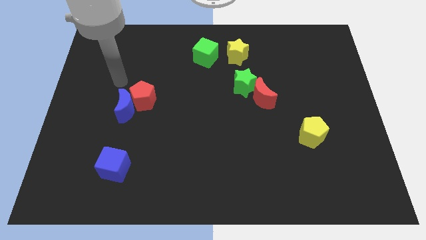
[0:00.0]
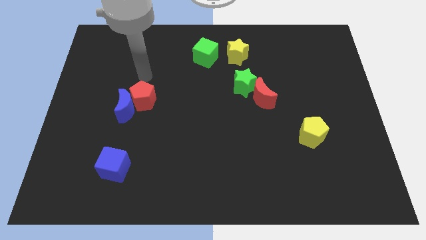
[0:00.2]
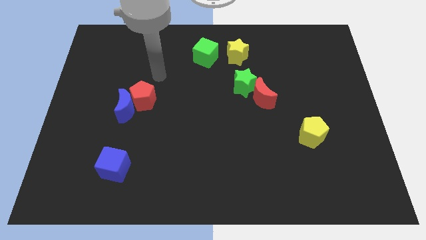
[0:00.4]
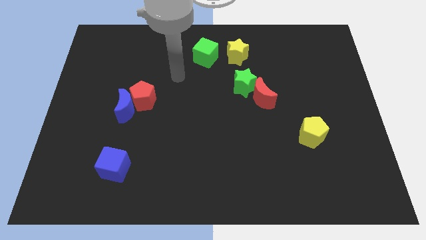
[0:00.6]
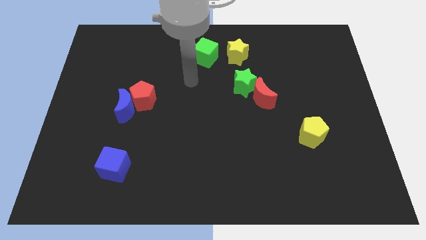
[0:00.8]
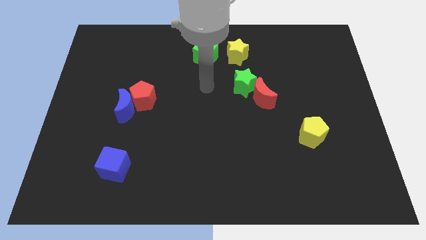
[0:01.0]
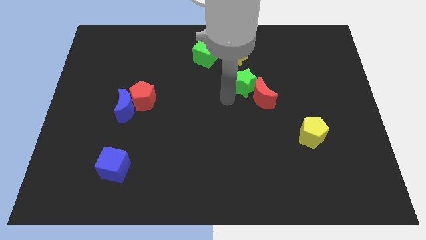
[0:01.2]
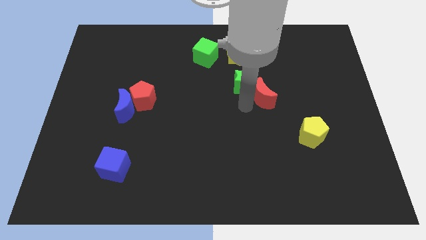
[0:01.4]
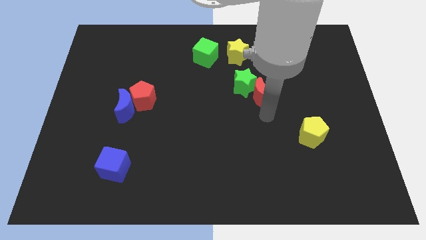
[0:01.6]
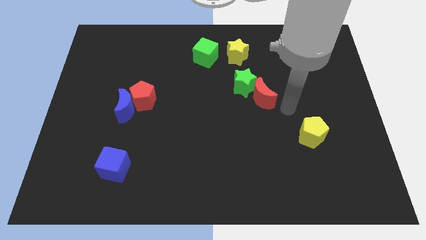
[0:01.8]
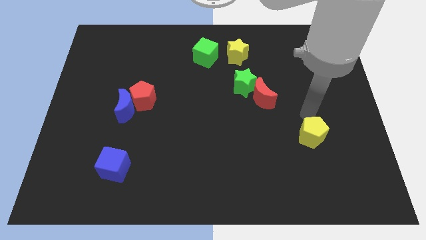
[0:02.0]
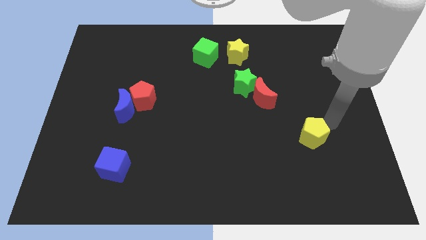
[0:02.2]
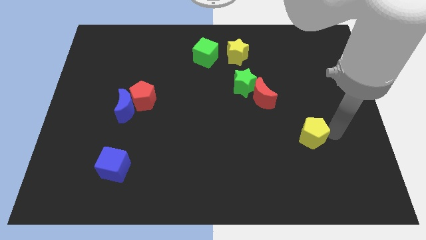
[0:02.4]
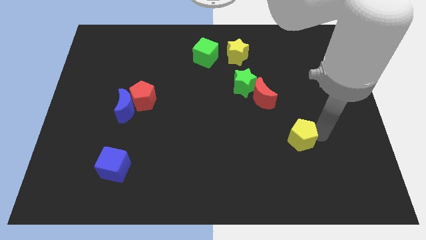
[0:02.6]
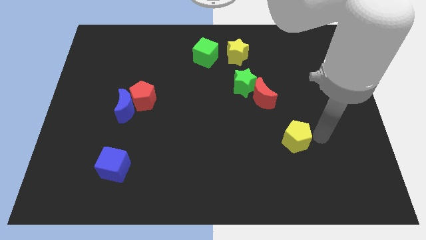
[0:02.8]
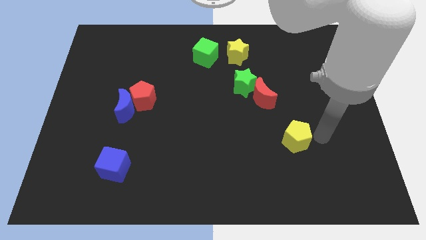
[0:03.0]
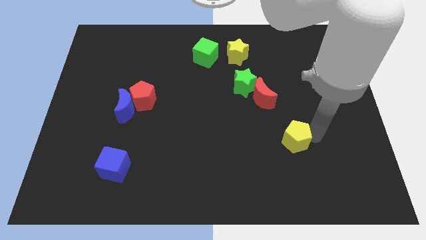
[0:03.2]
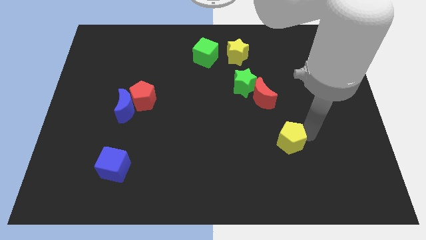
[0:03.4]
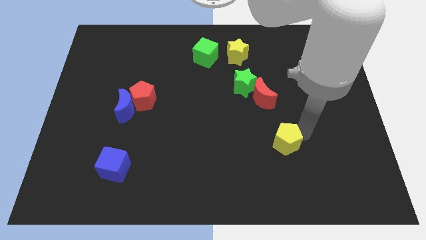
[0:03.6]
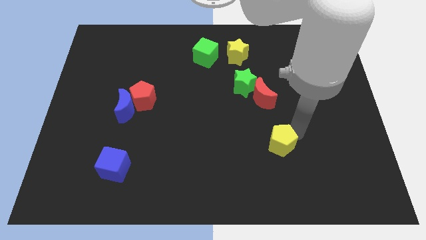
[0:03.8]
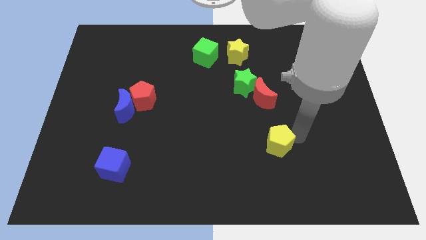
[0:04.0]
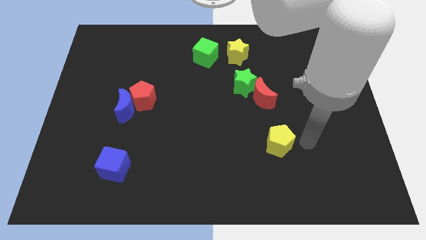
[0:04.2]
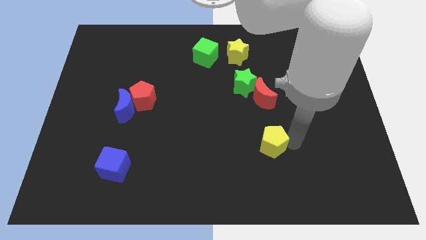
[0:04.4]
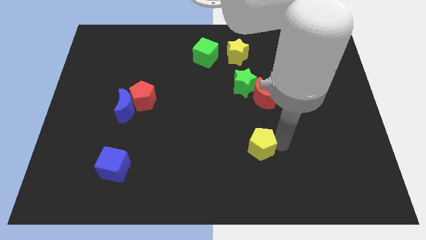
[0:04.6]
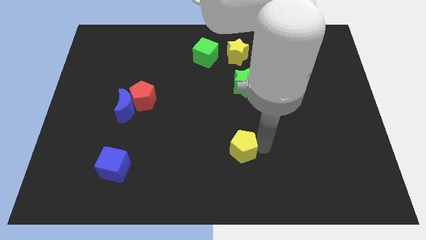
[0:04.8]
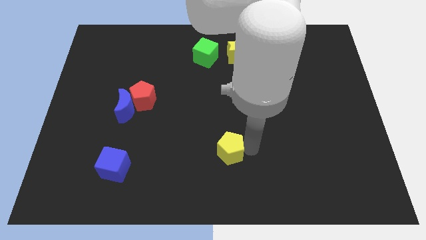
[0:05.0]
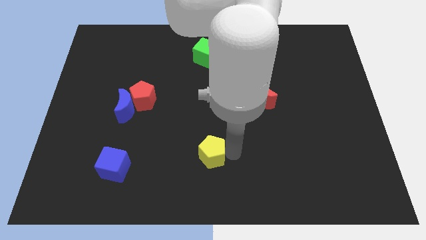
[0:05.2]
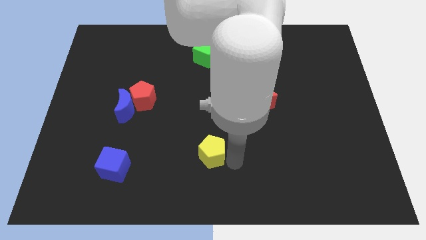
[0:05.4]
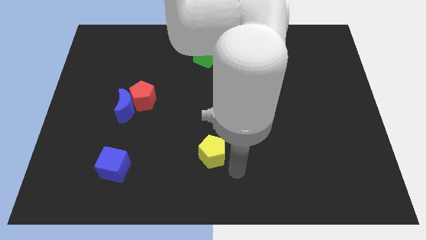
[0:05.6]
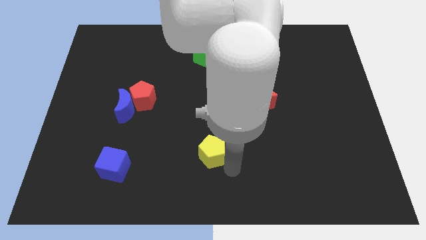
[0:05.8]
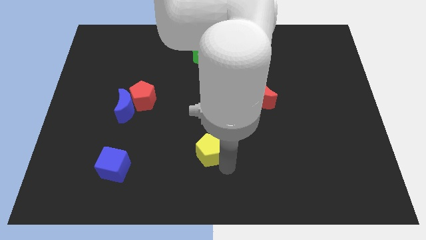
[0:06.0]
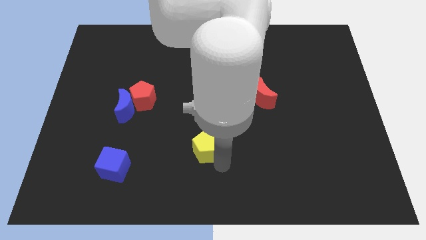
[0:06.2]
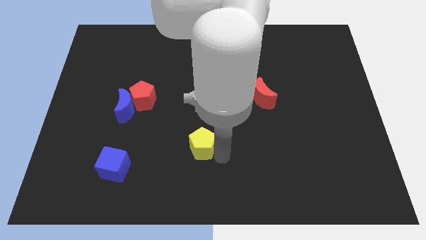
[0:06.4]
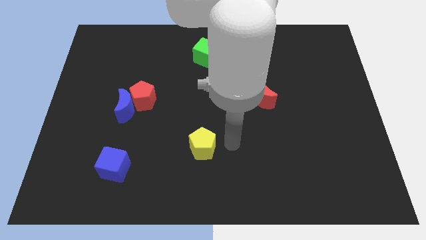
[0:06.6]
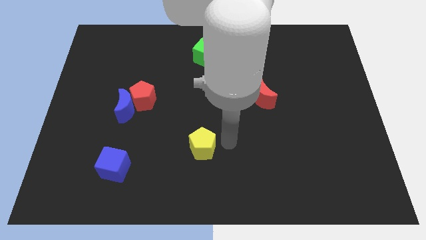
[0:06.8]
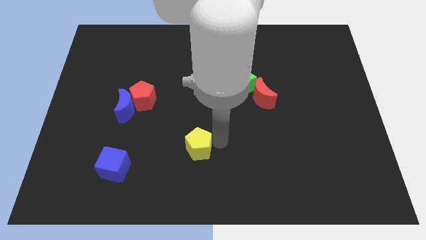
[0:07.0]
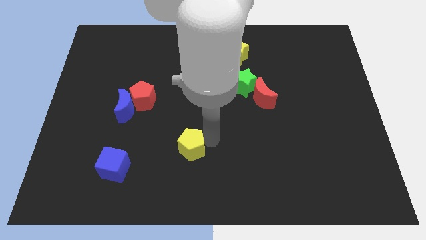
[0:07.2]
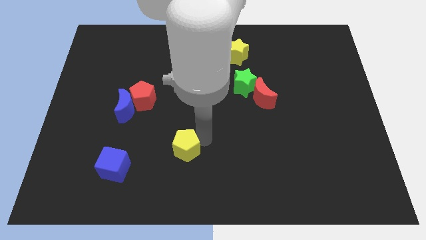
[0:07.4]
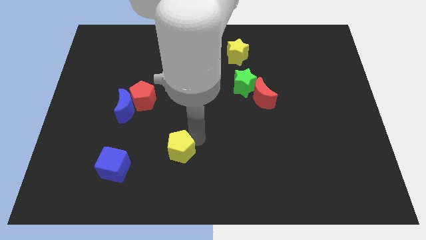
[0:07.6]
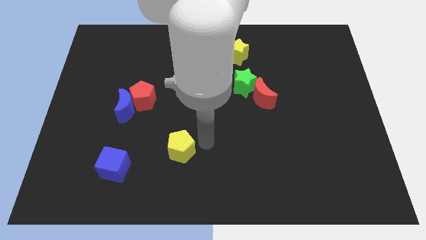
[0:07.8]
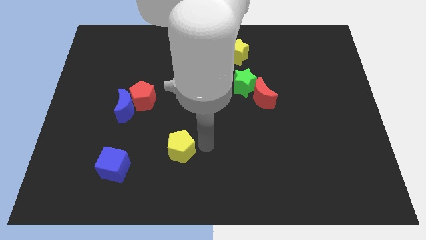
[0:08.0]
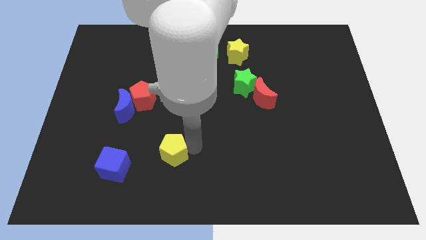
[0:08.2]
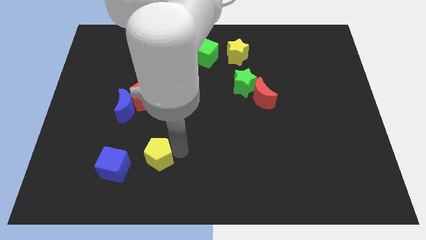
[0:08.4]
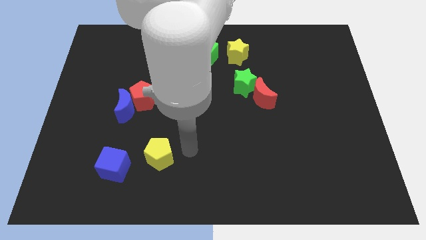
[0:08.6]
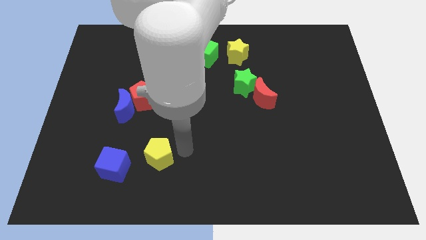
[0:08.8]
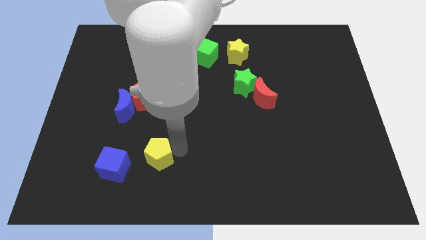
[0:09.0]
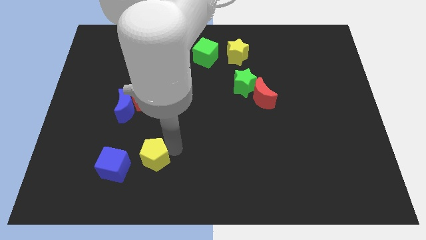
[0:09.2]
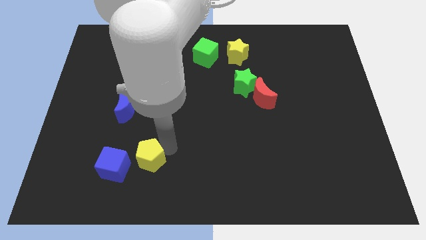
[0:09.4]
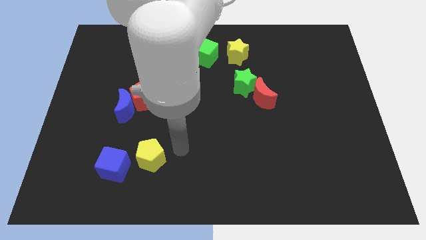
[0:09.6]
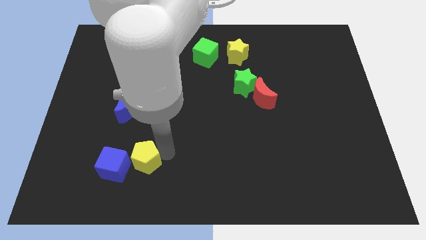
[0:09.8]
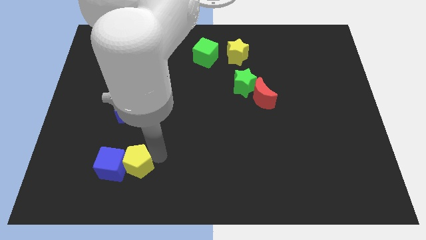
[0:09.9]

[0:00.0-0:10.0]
slide the yellow pentagon to the blue cube
